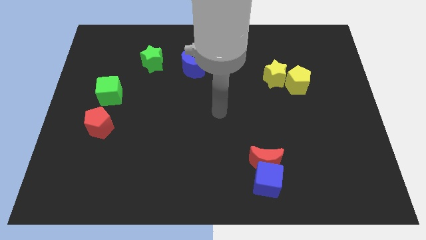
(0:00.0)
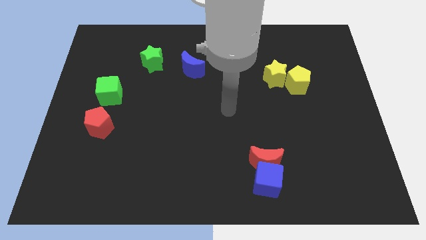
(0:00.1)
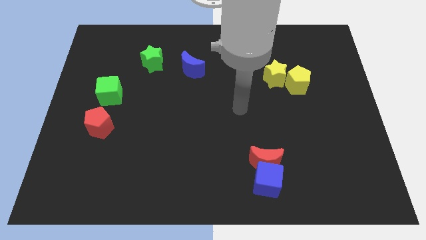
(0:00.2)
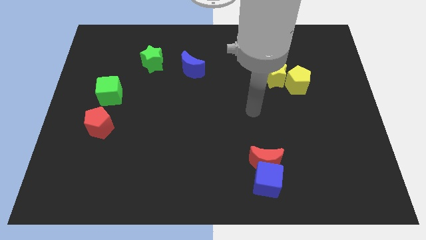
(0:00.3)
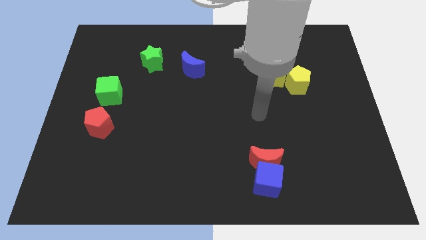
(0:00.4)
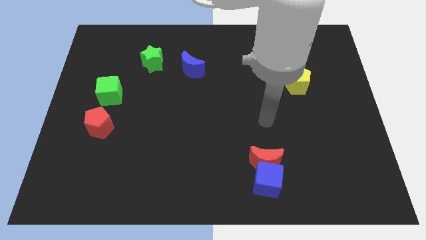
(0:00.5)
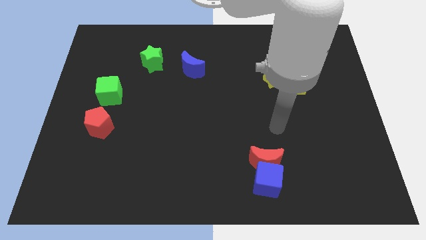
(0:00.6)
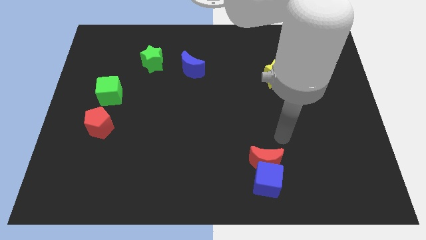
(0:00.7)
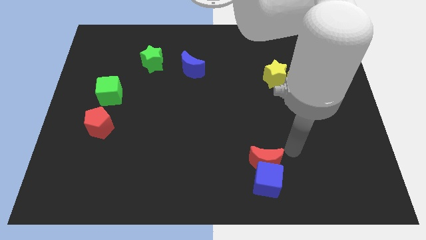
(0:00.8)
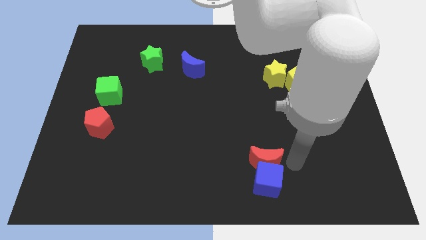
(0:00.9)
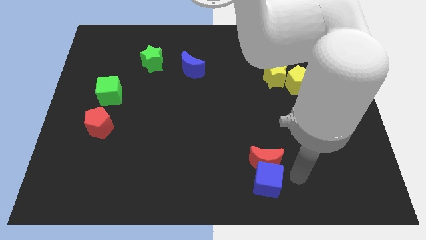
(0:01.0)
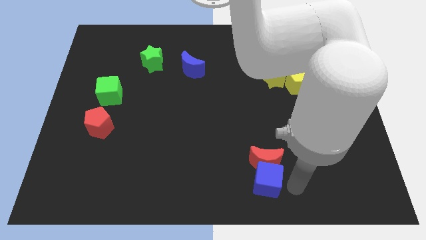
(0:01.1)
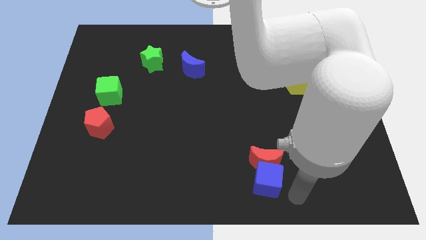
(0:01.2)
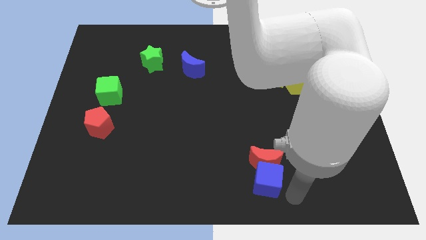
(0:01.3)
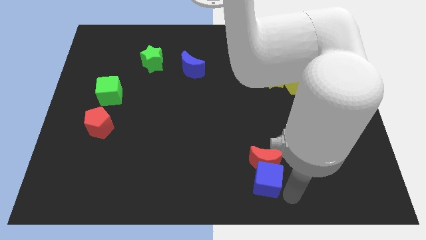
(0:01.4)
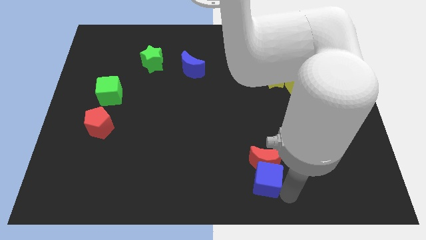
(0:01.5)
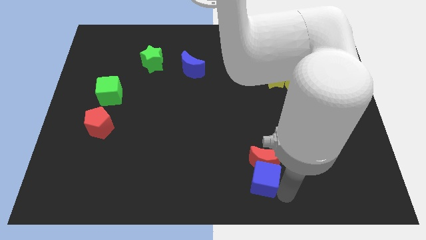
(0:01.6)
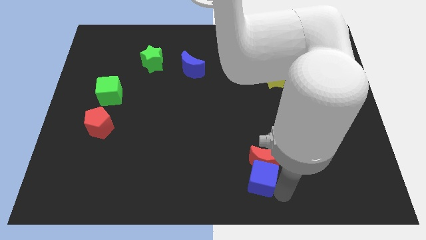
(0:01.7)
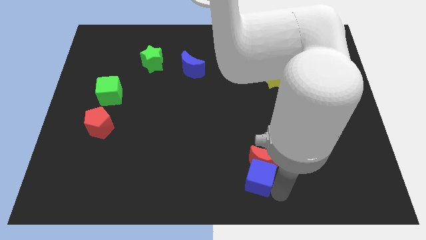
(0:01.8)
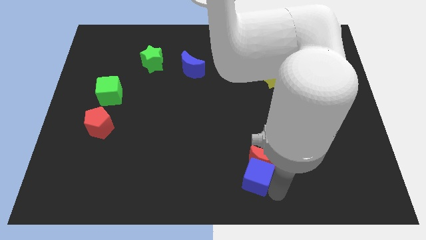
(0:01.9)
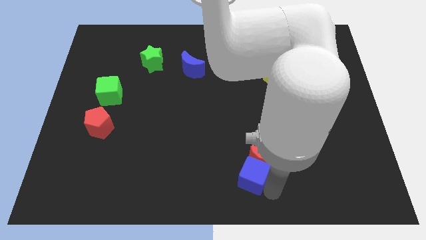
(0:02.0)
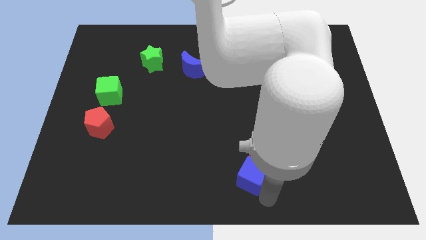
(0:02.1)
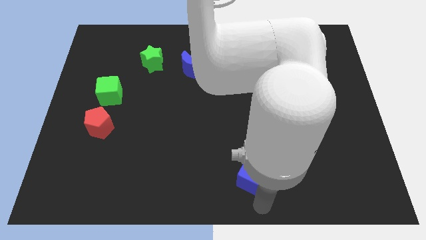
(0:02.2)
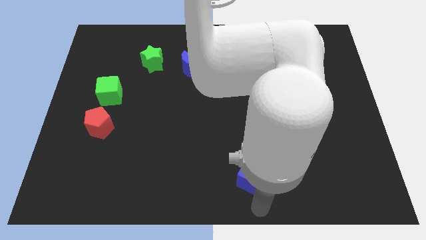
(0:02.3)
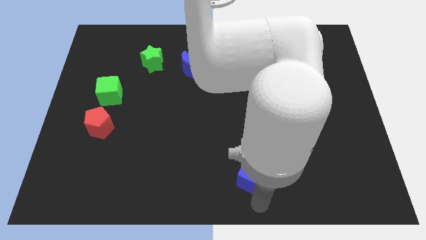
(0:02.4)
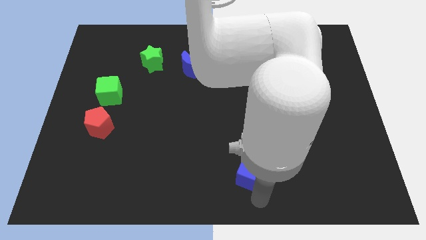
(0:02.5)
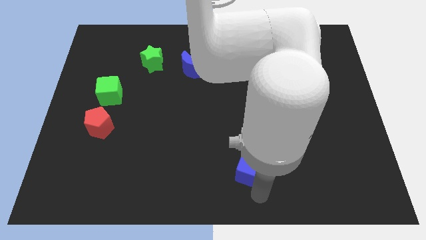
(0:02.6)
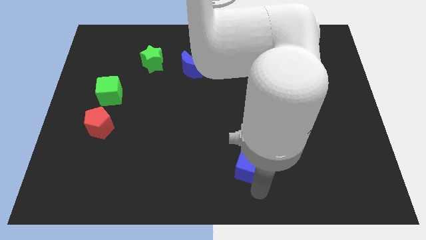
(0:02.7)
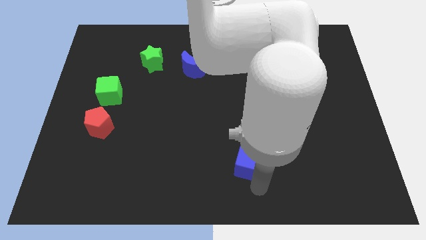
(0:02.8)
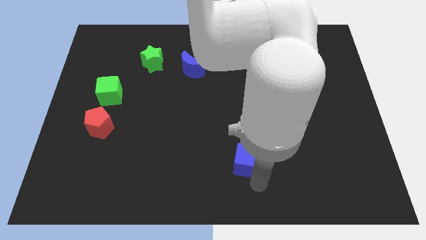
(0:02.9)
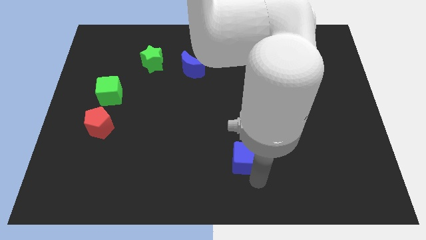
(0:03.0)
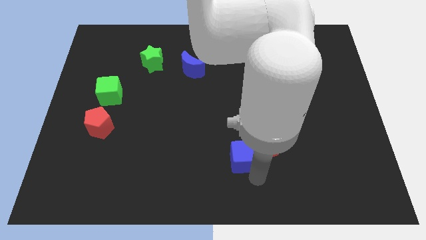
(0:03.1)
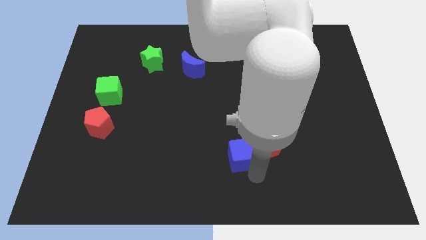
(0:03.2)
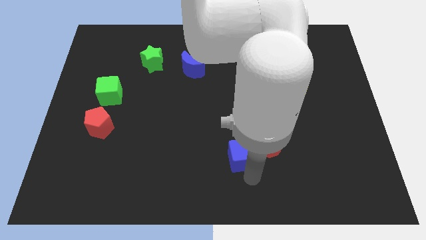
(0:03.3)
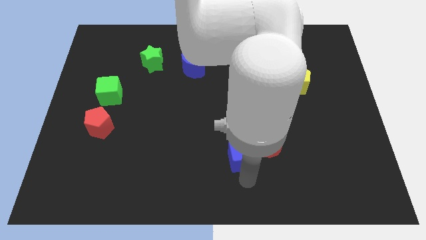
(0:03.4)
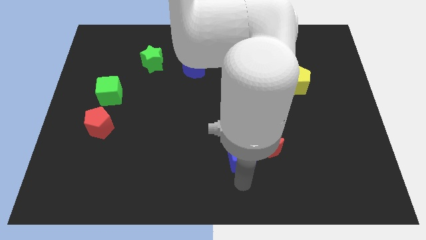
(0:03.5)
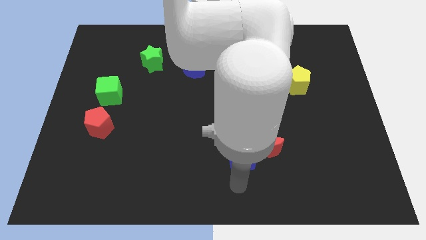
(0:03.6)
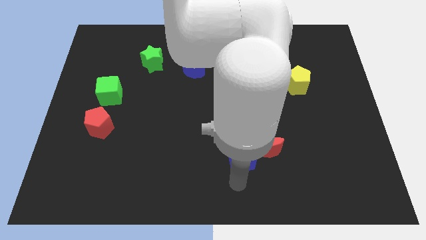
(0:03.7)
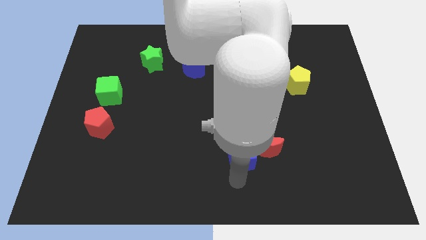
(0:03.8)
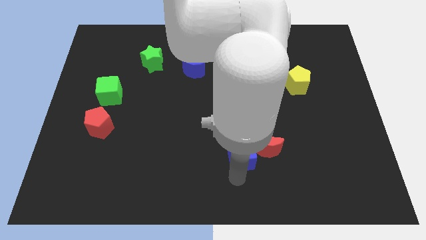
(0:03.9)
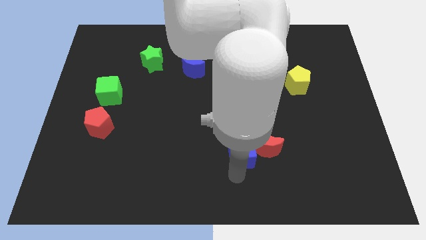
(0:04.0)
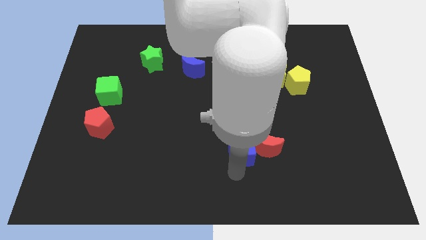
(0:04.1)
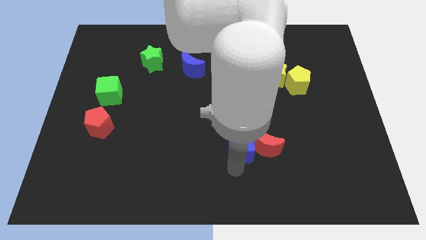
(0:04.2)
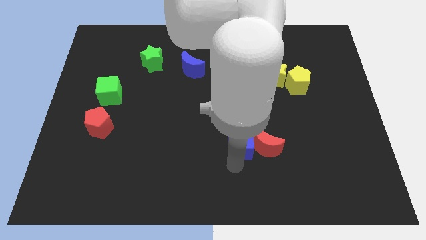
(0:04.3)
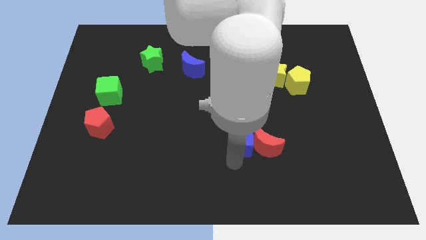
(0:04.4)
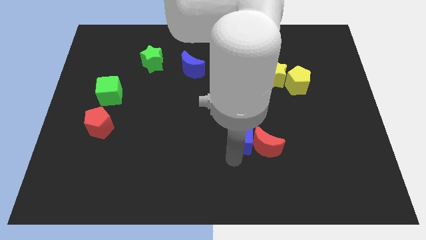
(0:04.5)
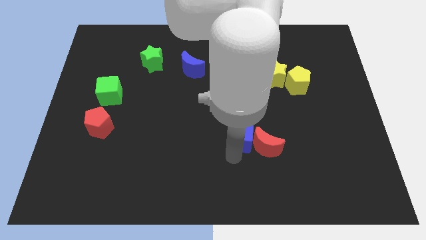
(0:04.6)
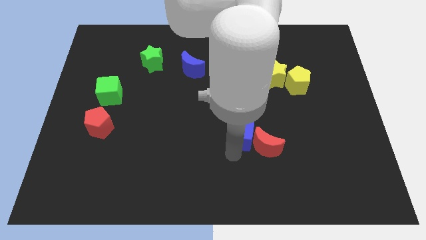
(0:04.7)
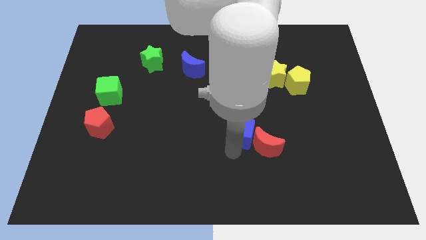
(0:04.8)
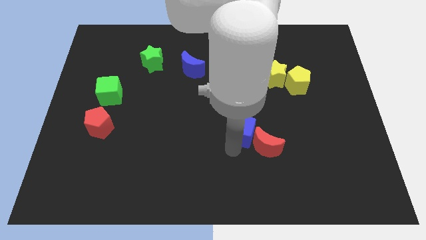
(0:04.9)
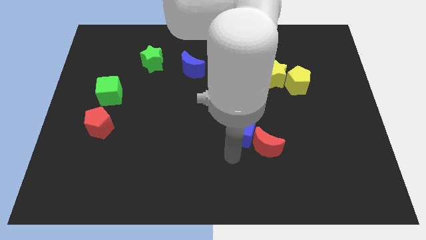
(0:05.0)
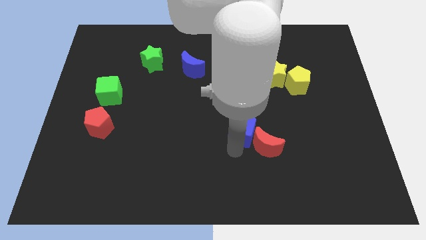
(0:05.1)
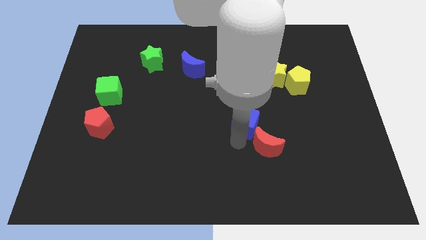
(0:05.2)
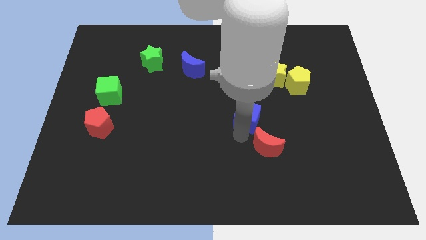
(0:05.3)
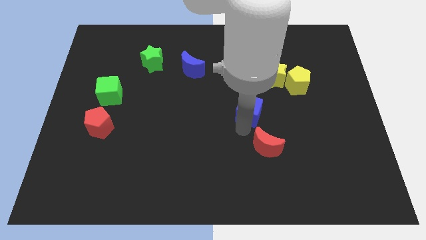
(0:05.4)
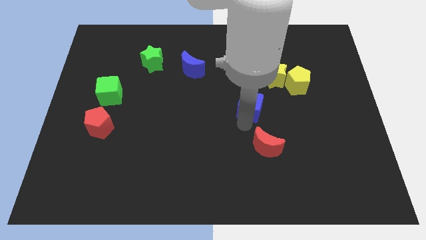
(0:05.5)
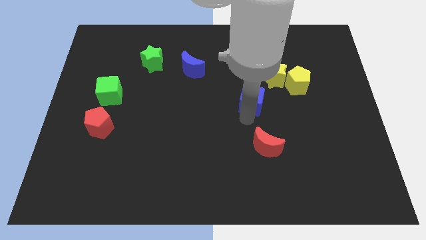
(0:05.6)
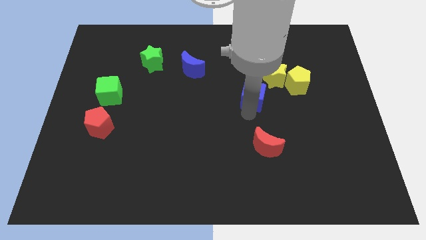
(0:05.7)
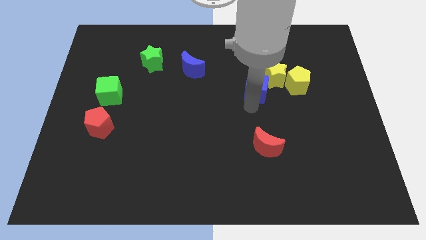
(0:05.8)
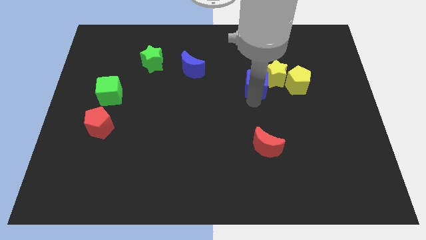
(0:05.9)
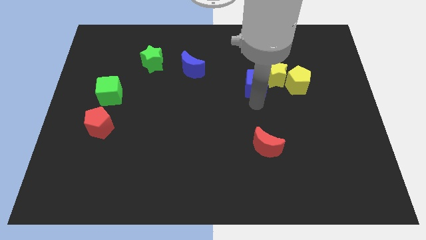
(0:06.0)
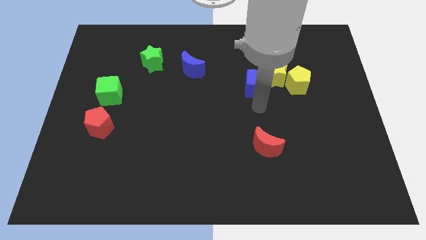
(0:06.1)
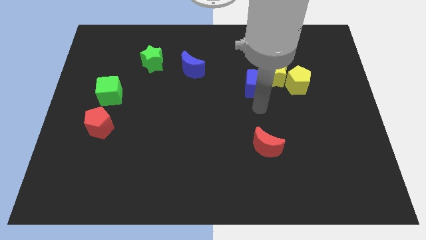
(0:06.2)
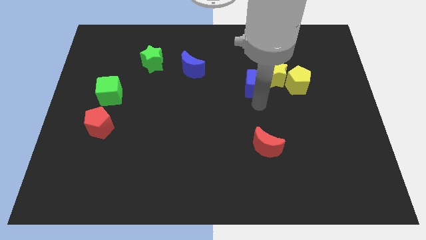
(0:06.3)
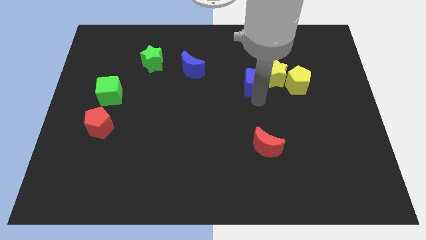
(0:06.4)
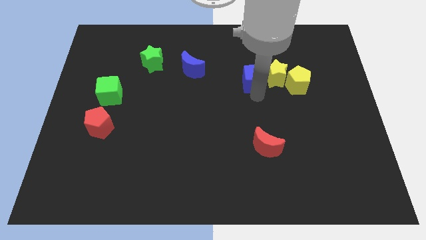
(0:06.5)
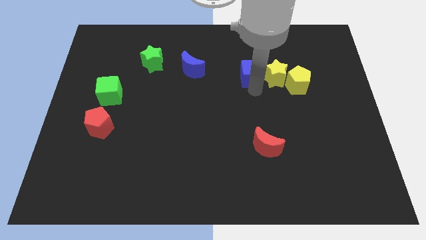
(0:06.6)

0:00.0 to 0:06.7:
move the blue cube diagonally up and to the left of the yellow star
